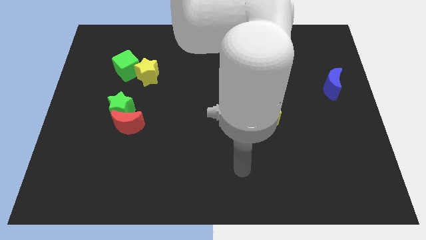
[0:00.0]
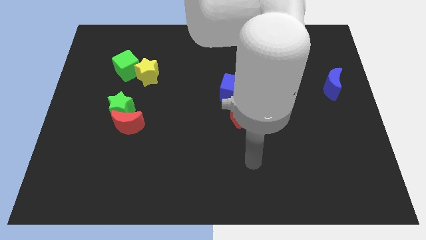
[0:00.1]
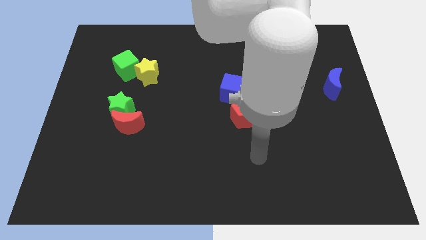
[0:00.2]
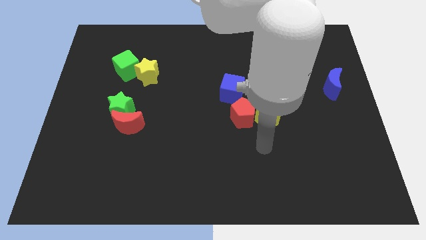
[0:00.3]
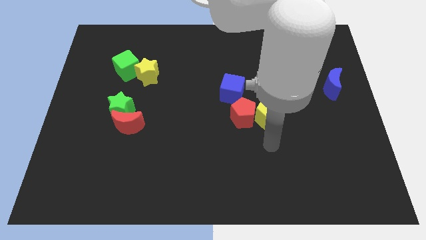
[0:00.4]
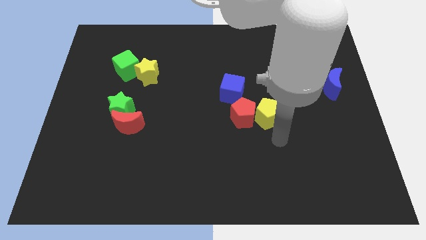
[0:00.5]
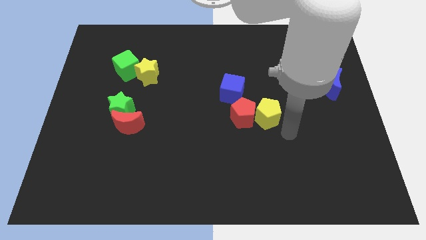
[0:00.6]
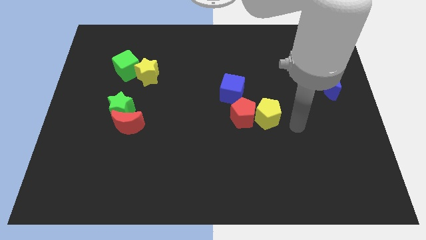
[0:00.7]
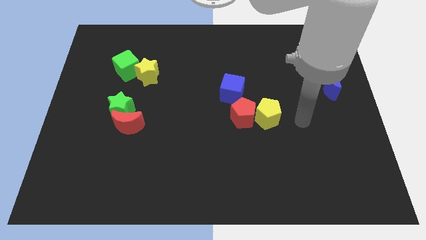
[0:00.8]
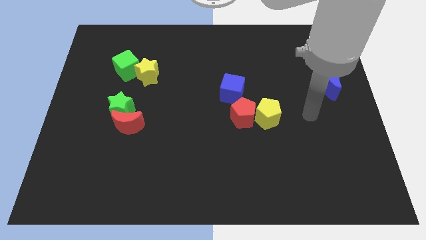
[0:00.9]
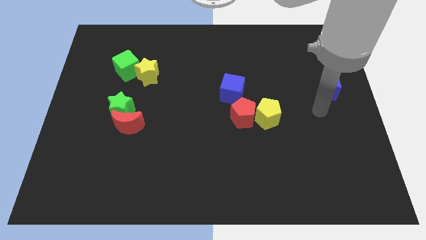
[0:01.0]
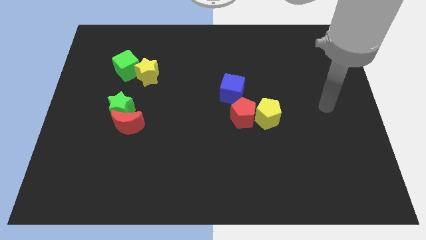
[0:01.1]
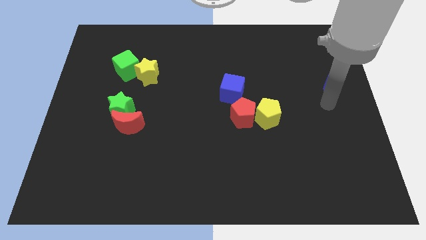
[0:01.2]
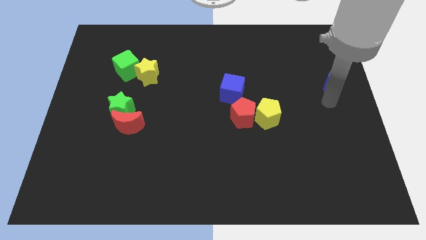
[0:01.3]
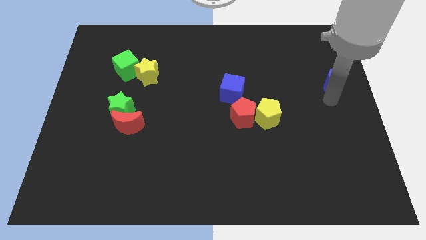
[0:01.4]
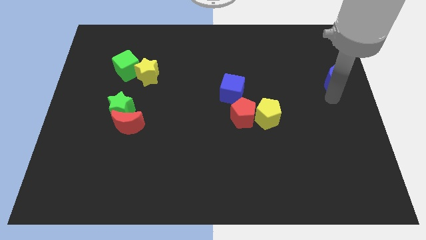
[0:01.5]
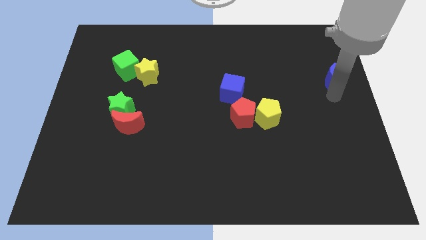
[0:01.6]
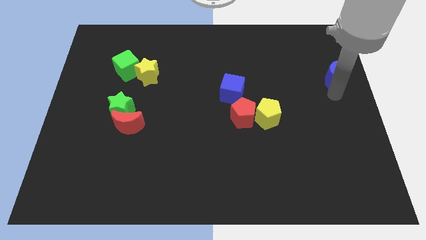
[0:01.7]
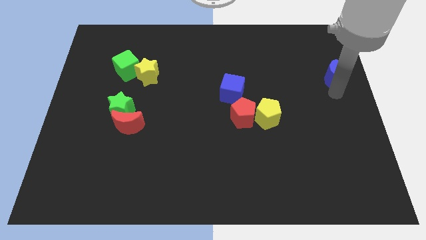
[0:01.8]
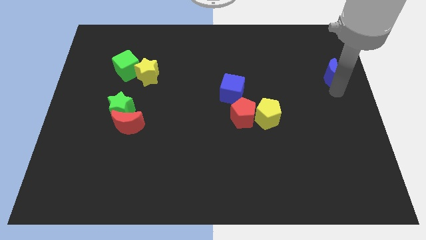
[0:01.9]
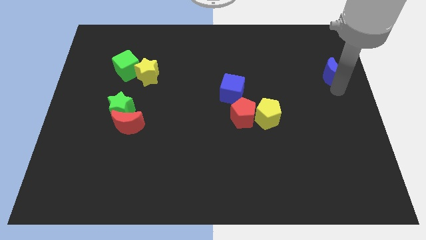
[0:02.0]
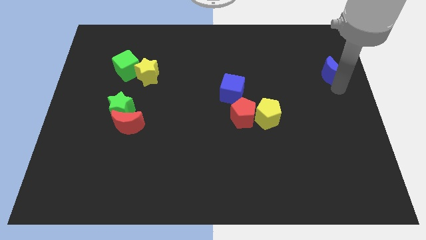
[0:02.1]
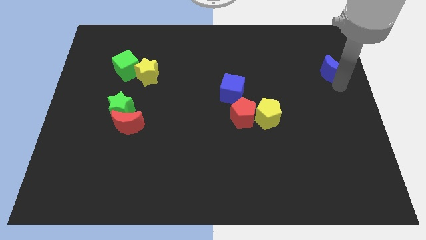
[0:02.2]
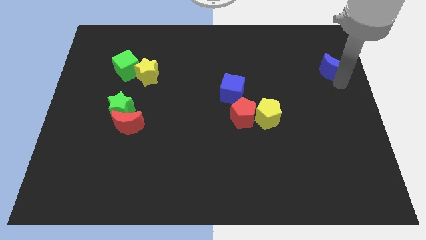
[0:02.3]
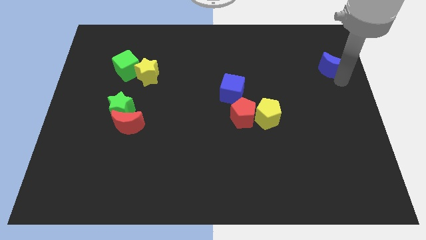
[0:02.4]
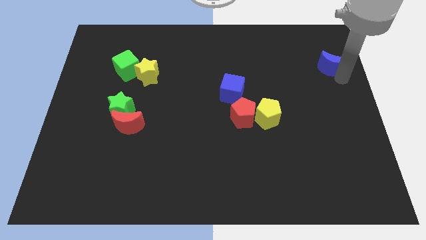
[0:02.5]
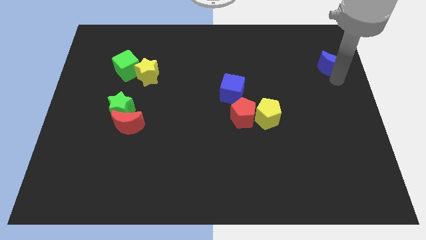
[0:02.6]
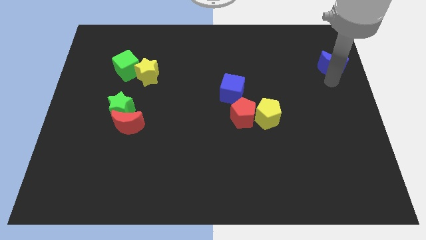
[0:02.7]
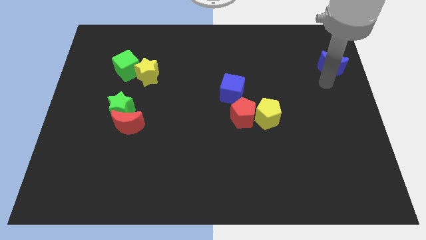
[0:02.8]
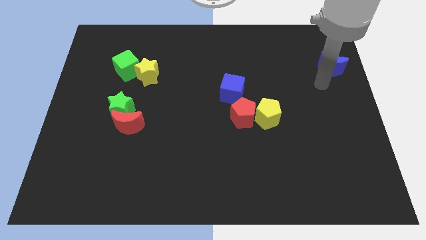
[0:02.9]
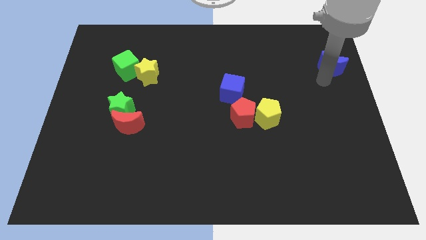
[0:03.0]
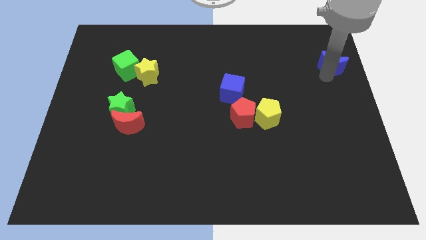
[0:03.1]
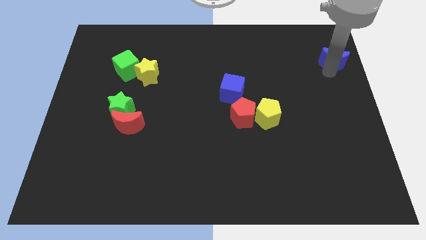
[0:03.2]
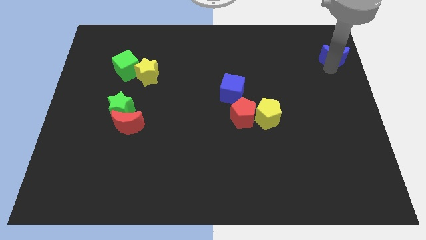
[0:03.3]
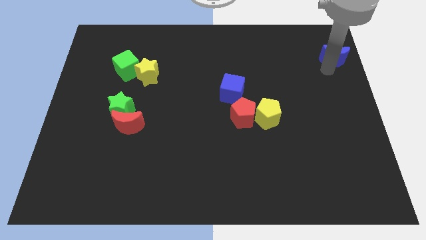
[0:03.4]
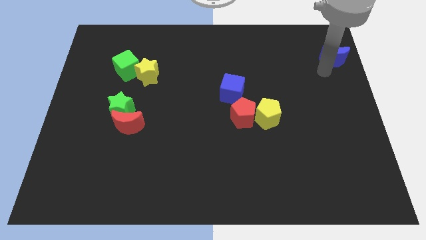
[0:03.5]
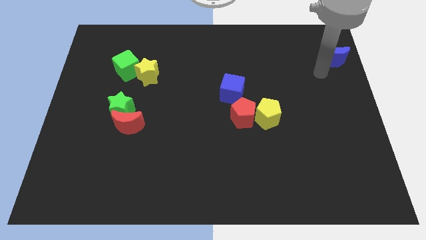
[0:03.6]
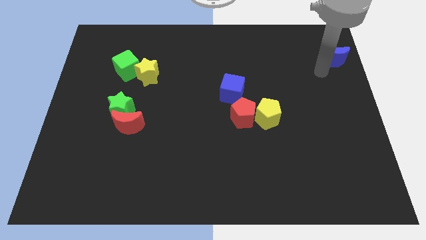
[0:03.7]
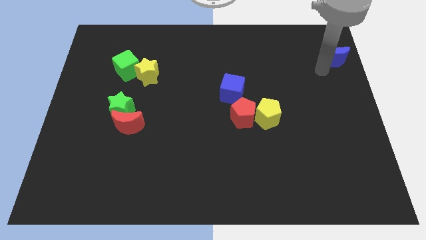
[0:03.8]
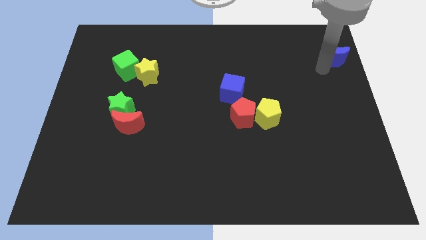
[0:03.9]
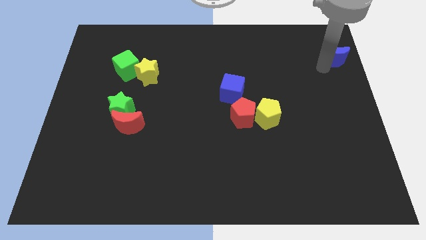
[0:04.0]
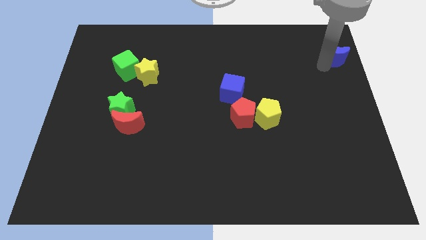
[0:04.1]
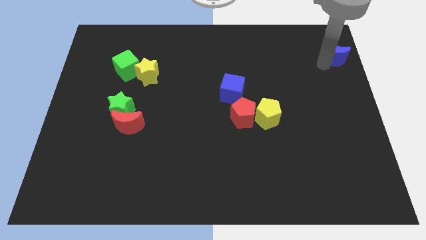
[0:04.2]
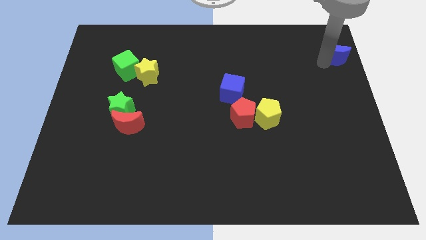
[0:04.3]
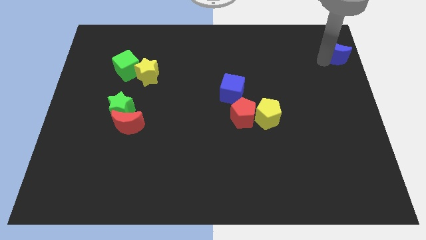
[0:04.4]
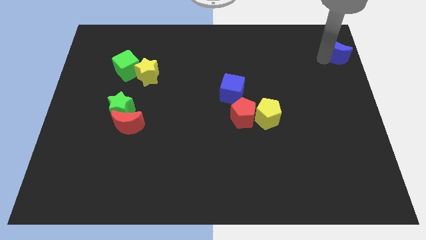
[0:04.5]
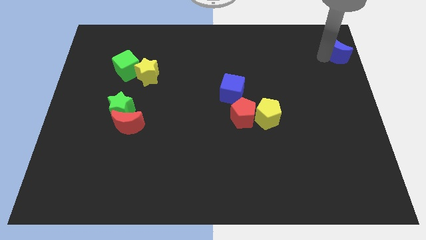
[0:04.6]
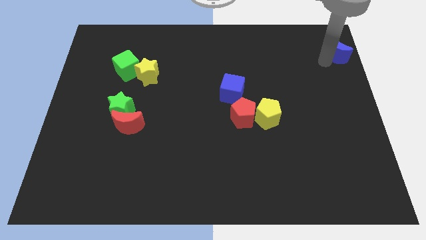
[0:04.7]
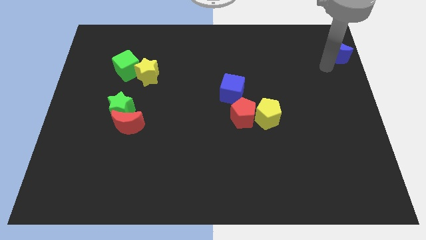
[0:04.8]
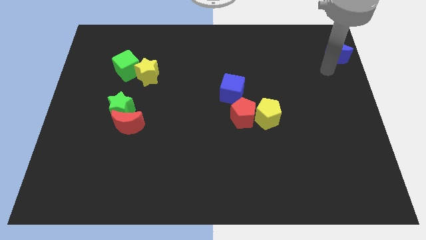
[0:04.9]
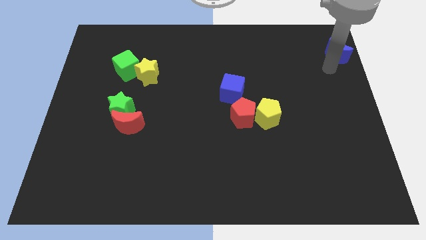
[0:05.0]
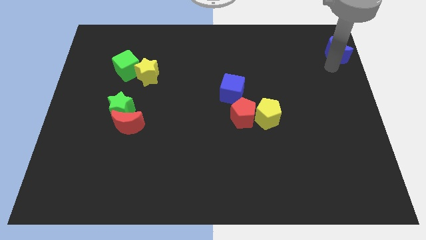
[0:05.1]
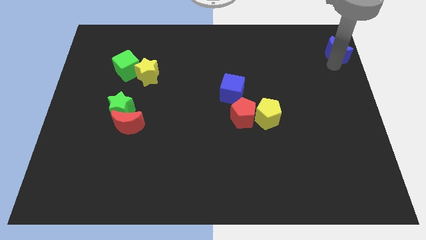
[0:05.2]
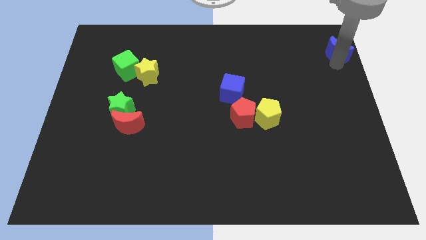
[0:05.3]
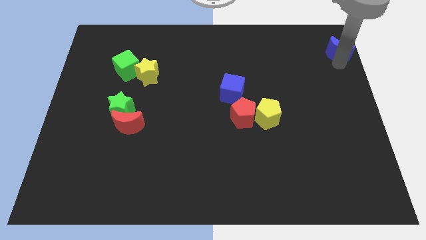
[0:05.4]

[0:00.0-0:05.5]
put the blue moon to the top right

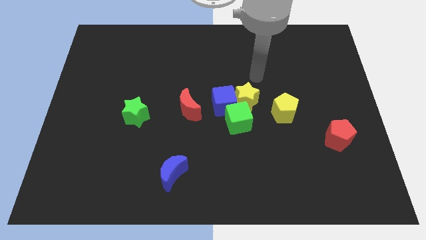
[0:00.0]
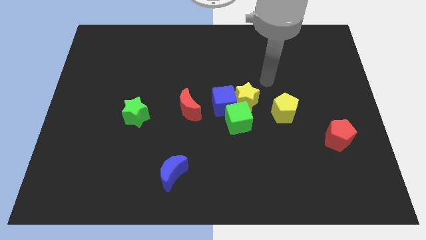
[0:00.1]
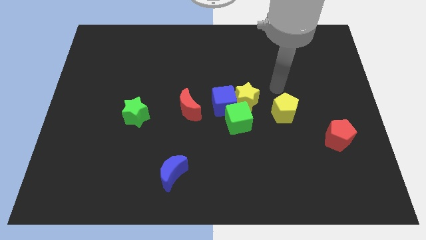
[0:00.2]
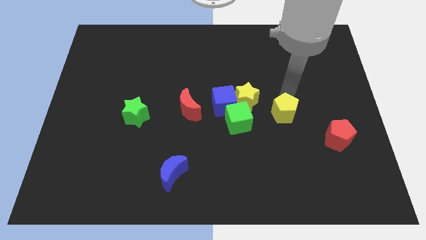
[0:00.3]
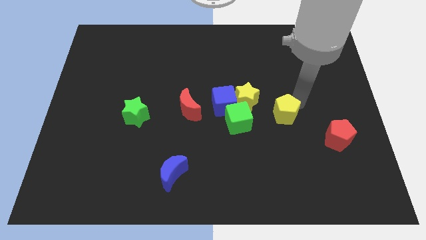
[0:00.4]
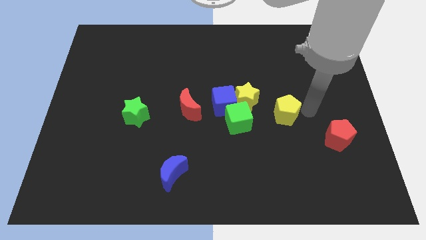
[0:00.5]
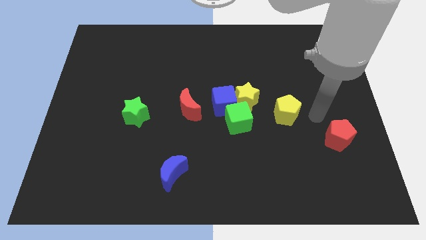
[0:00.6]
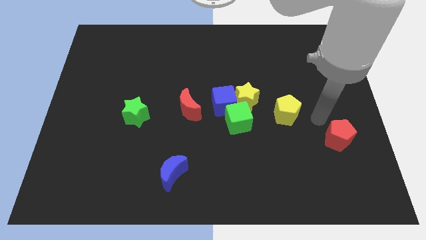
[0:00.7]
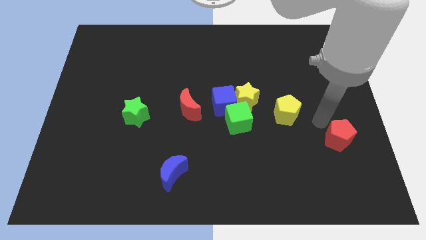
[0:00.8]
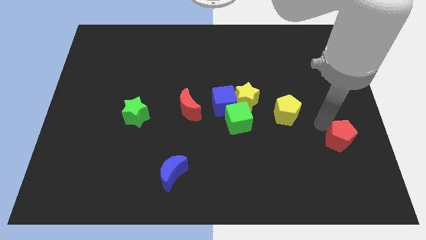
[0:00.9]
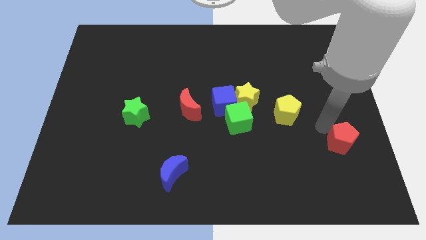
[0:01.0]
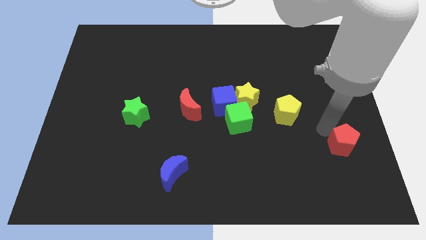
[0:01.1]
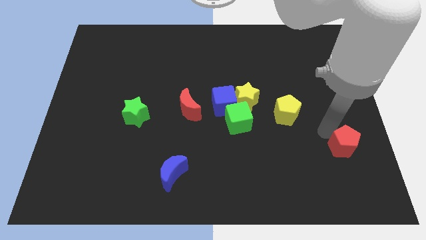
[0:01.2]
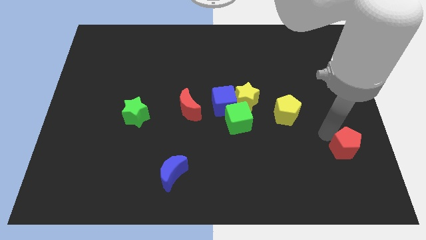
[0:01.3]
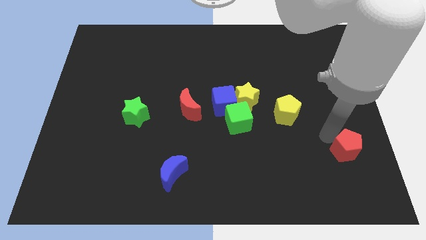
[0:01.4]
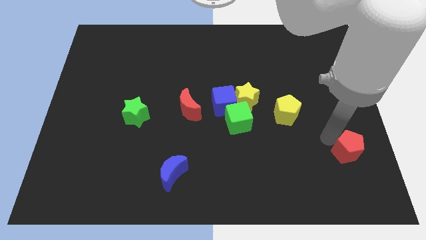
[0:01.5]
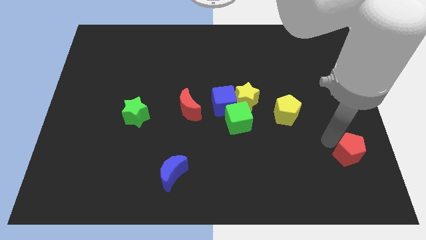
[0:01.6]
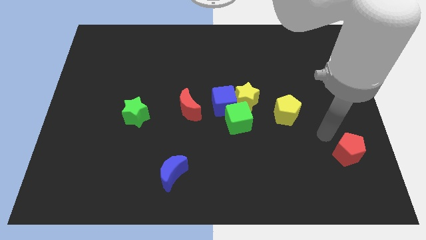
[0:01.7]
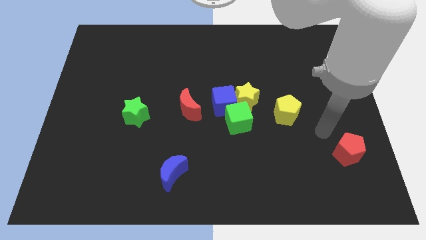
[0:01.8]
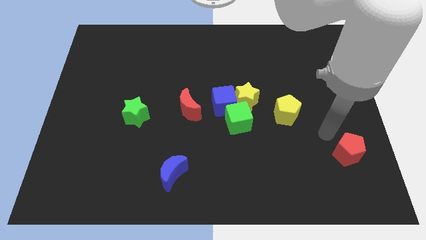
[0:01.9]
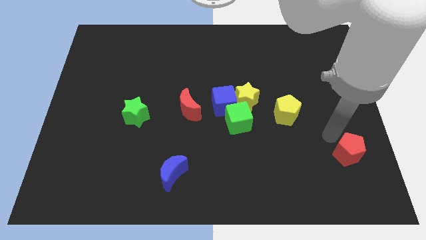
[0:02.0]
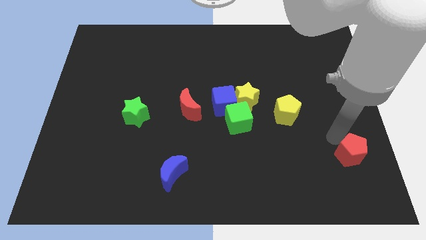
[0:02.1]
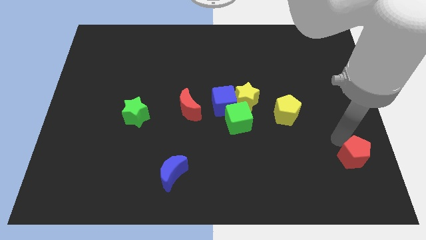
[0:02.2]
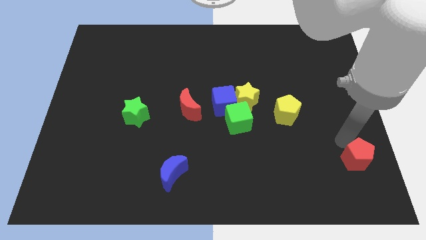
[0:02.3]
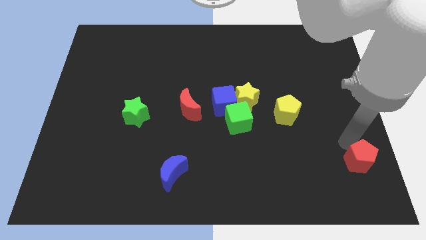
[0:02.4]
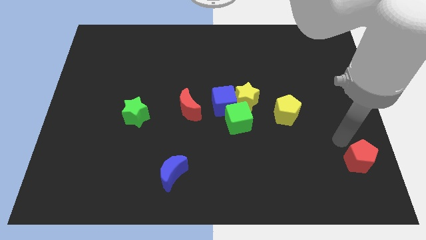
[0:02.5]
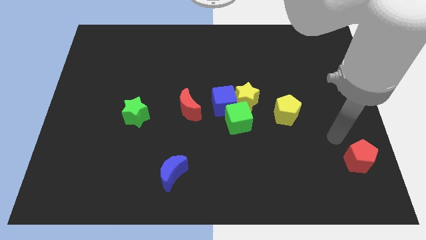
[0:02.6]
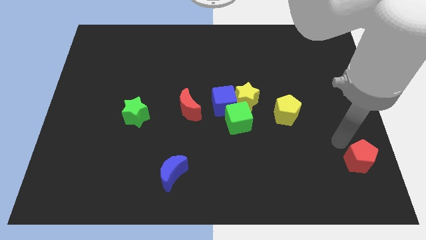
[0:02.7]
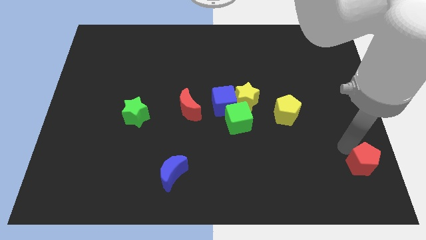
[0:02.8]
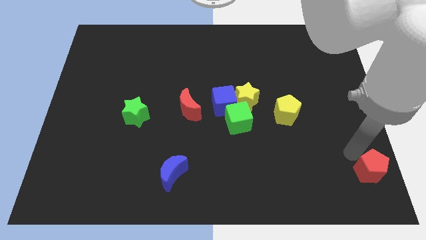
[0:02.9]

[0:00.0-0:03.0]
put the red pentagon to the bottom right
